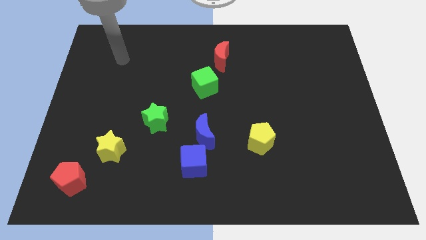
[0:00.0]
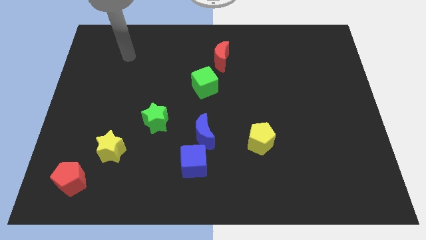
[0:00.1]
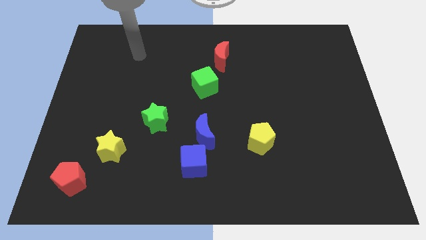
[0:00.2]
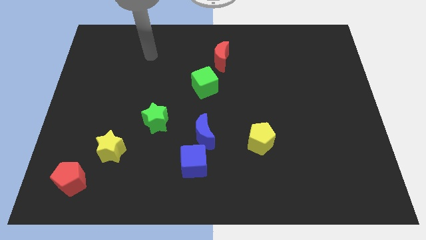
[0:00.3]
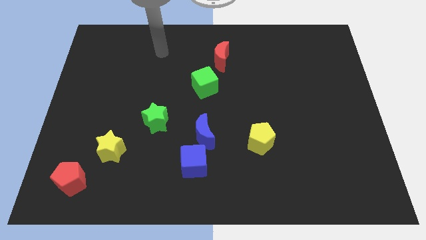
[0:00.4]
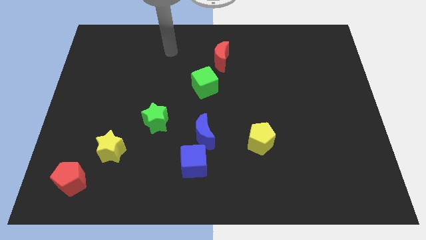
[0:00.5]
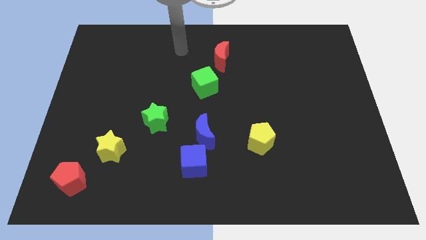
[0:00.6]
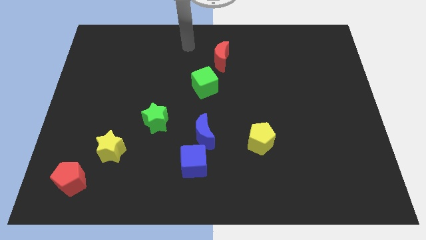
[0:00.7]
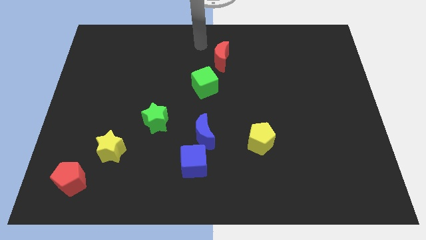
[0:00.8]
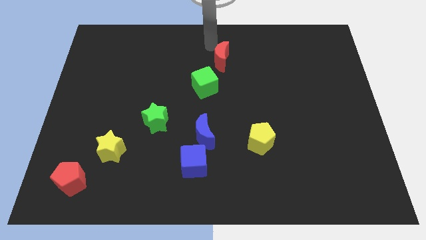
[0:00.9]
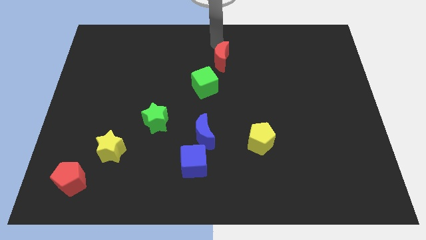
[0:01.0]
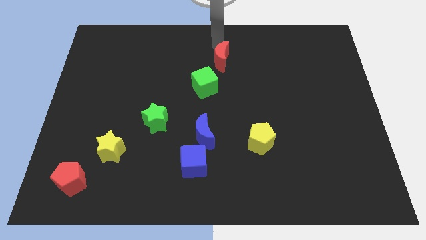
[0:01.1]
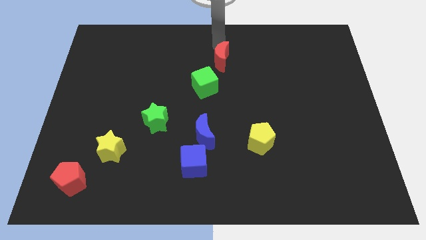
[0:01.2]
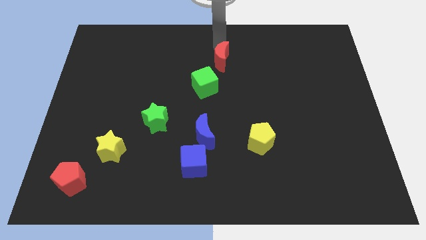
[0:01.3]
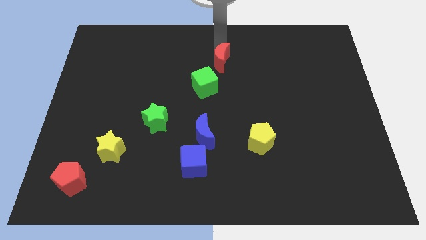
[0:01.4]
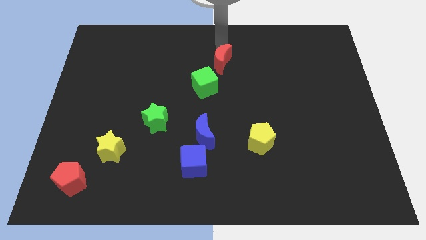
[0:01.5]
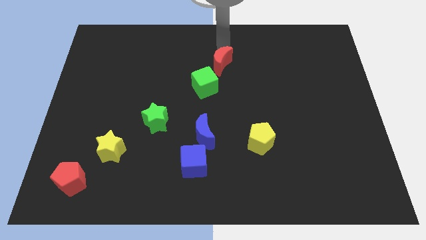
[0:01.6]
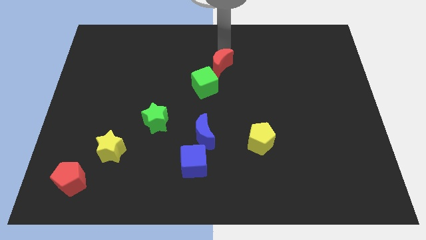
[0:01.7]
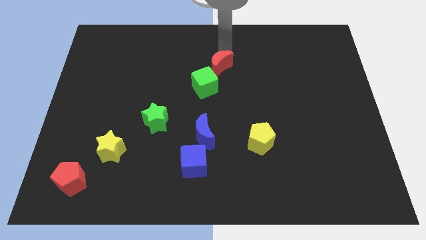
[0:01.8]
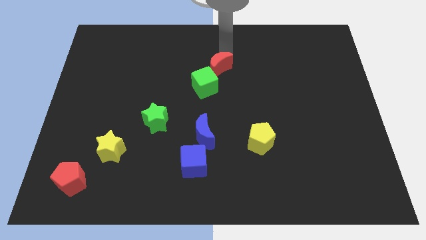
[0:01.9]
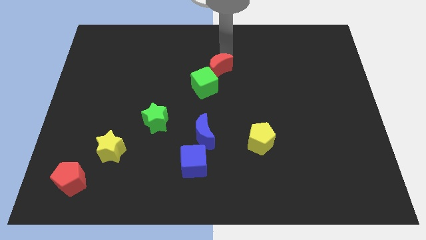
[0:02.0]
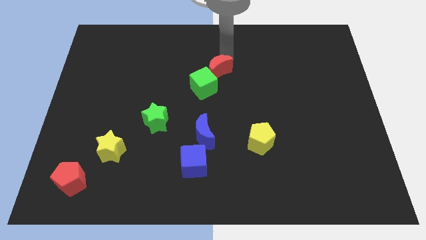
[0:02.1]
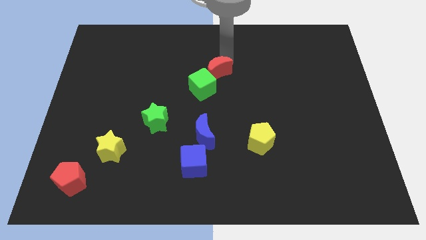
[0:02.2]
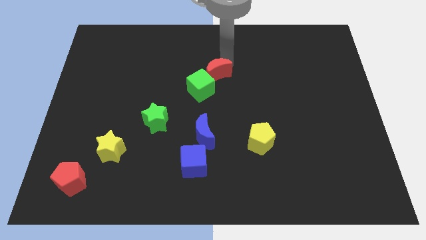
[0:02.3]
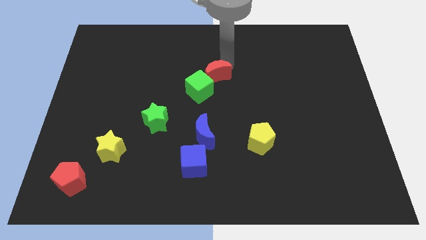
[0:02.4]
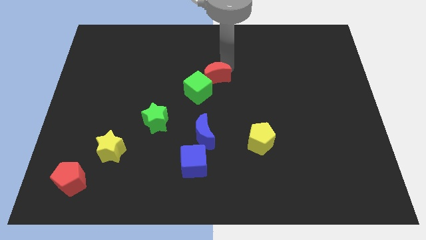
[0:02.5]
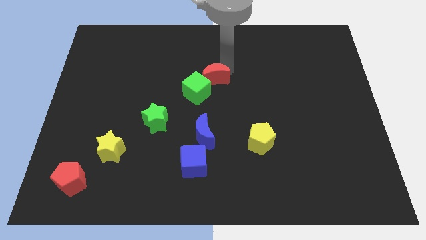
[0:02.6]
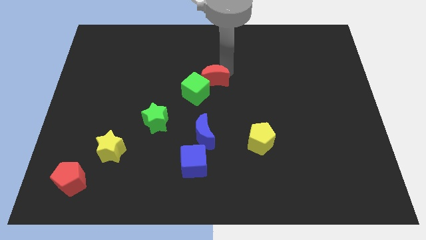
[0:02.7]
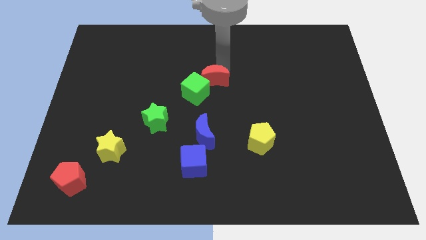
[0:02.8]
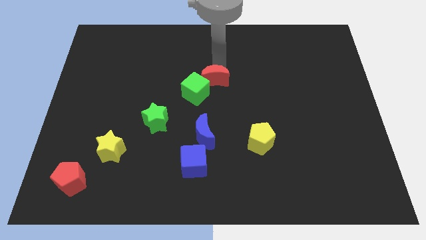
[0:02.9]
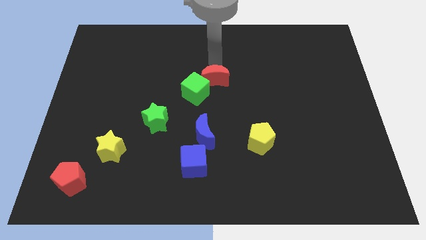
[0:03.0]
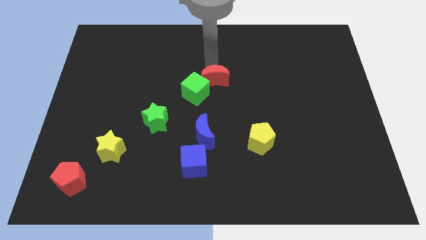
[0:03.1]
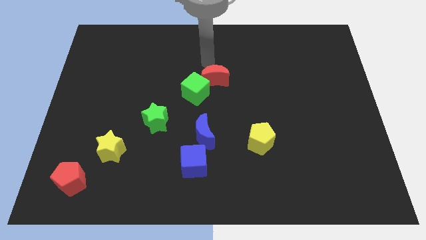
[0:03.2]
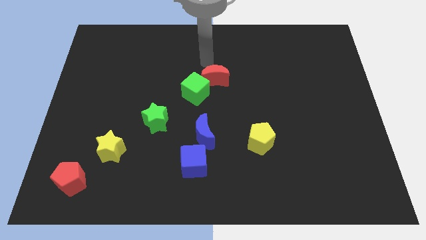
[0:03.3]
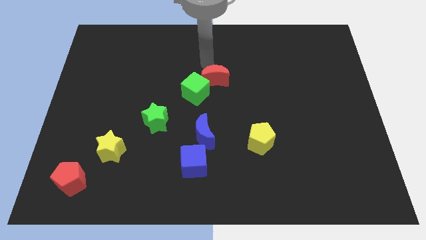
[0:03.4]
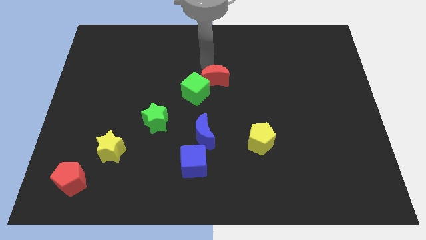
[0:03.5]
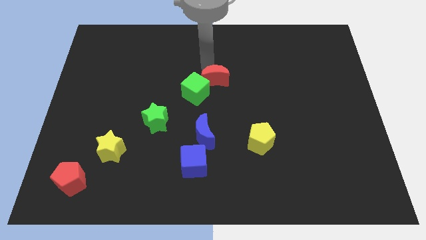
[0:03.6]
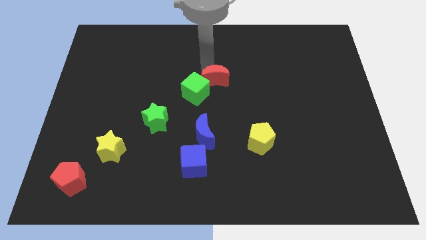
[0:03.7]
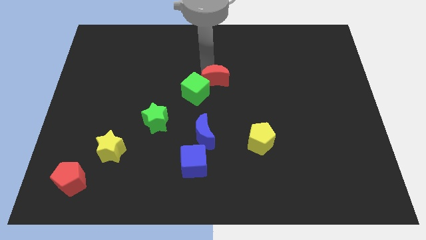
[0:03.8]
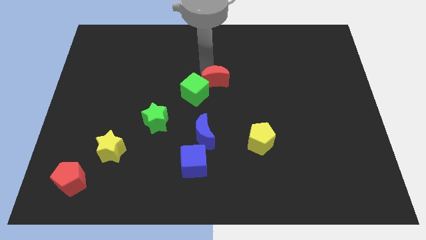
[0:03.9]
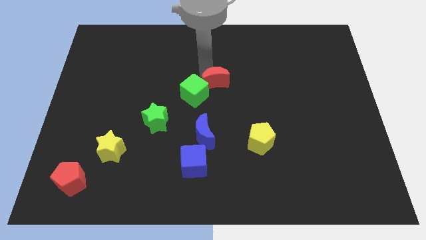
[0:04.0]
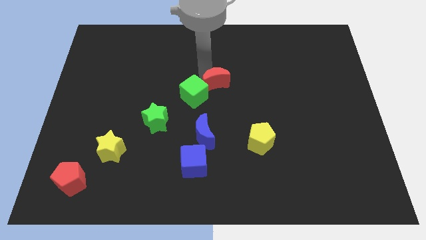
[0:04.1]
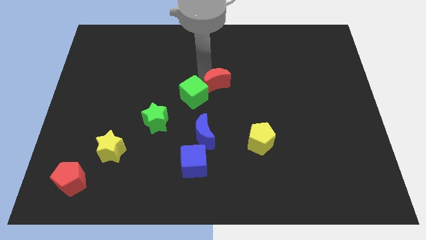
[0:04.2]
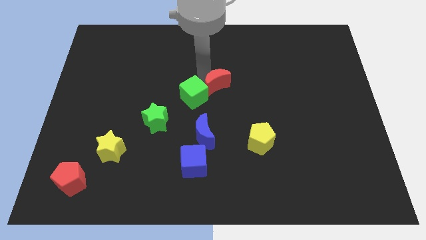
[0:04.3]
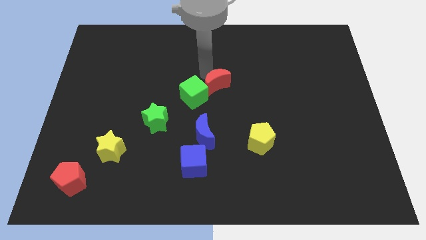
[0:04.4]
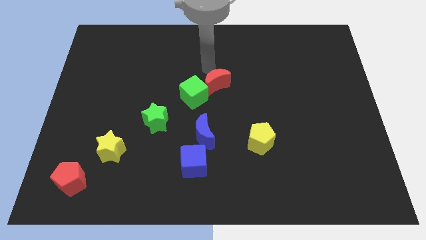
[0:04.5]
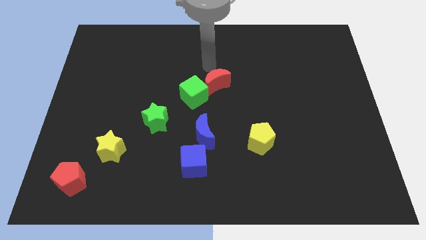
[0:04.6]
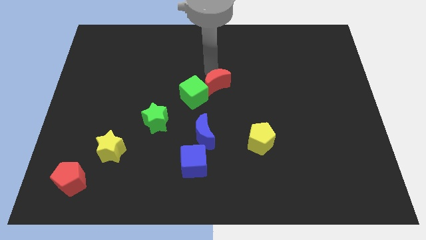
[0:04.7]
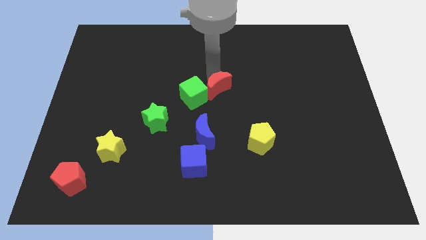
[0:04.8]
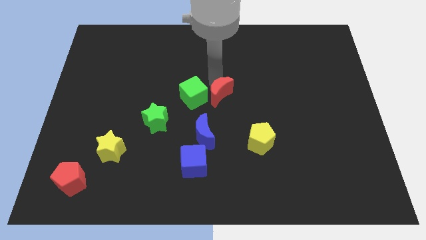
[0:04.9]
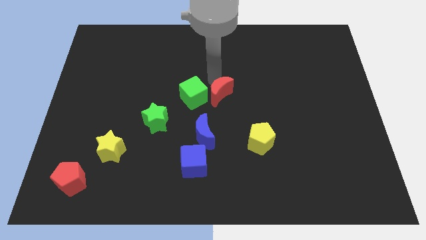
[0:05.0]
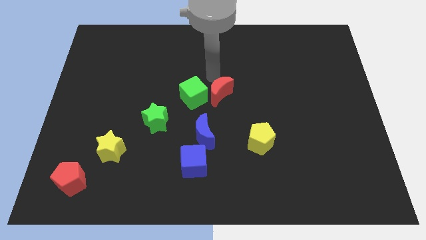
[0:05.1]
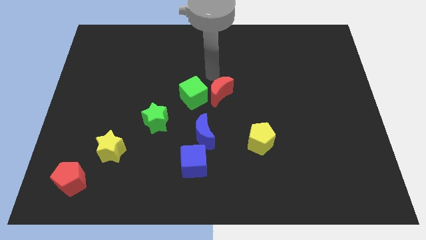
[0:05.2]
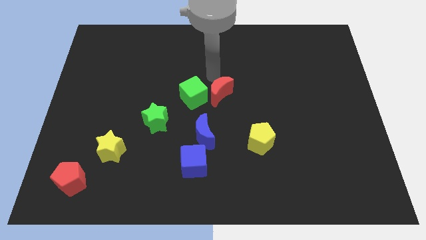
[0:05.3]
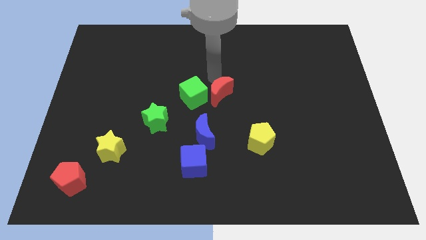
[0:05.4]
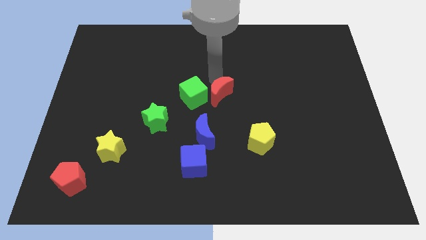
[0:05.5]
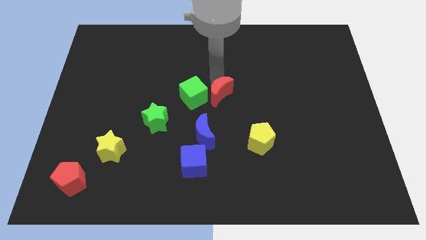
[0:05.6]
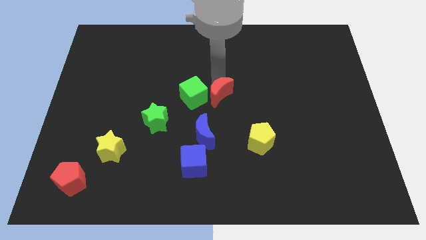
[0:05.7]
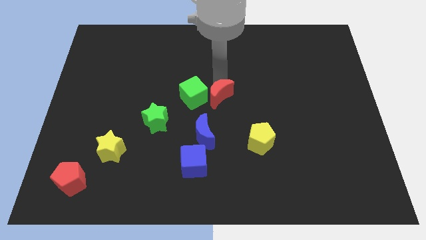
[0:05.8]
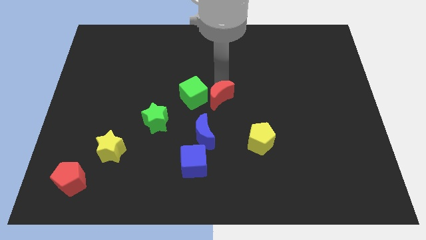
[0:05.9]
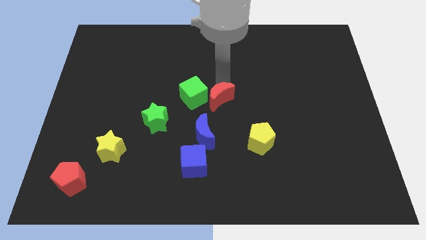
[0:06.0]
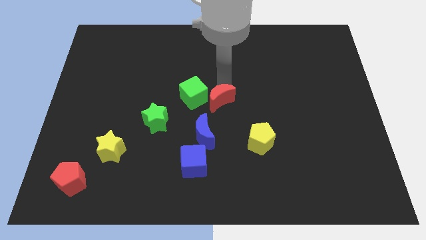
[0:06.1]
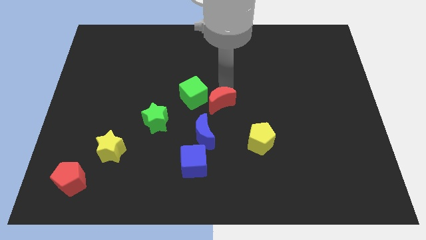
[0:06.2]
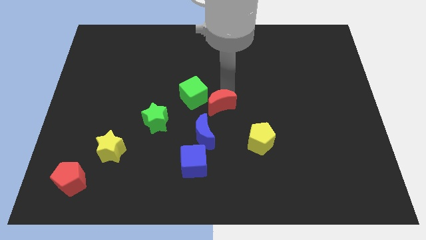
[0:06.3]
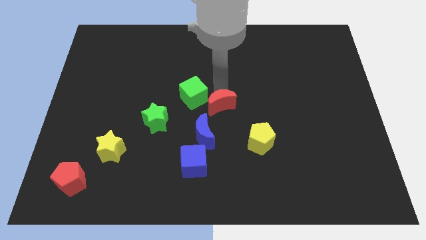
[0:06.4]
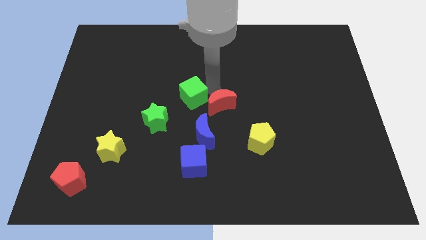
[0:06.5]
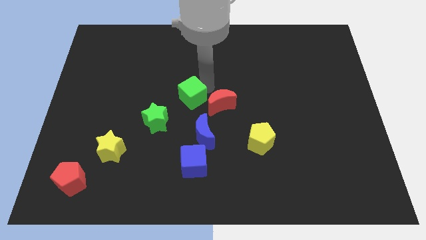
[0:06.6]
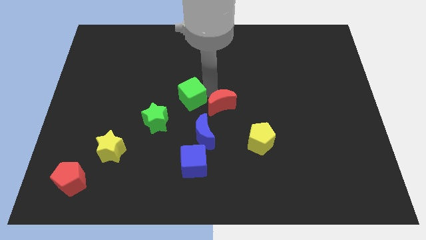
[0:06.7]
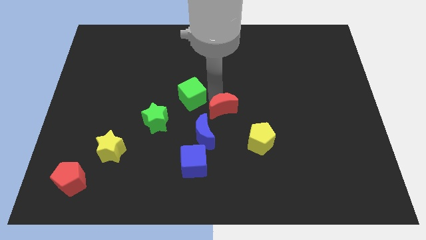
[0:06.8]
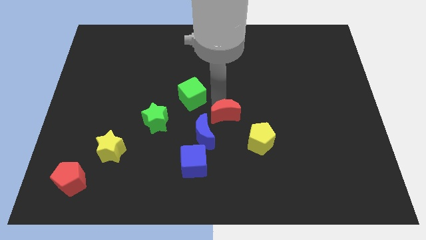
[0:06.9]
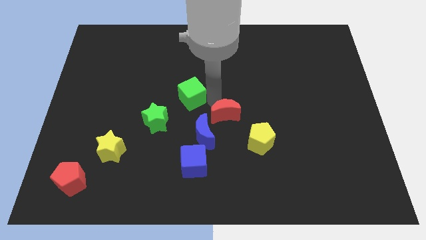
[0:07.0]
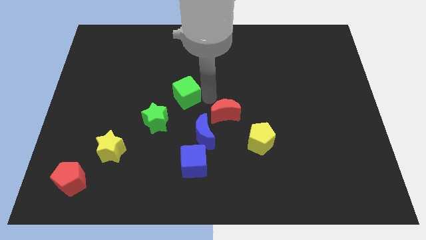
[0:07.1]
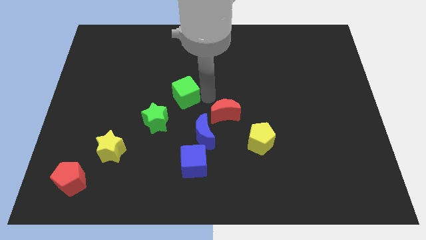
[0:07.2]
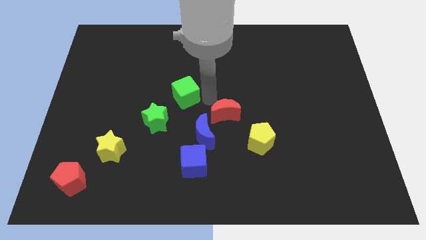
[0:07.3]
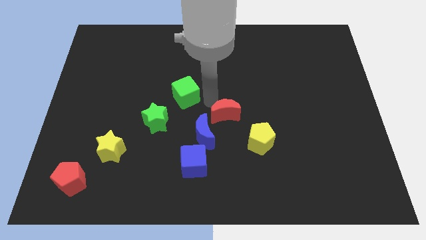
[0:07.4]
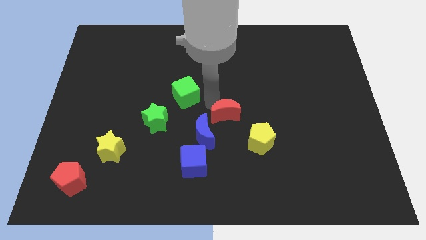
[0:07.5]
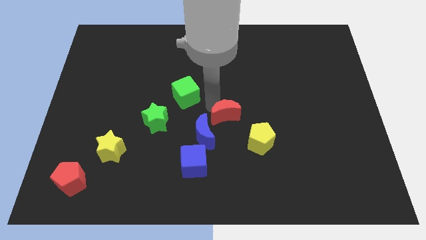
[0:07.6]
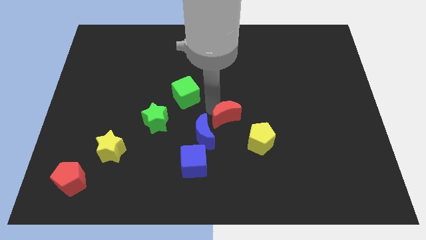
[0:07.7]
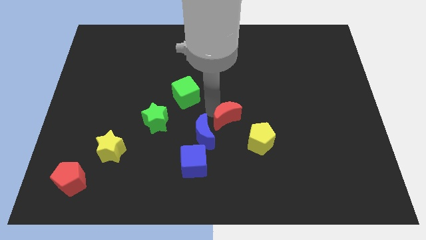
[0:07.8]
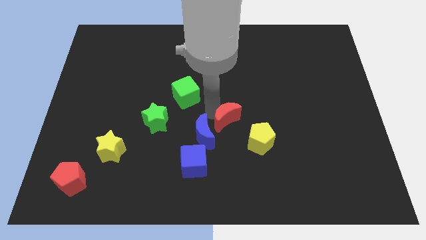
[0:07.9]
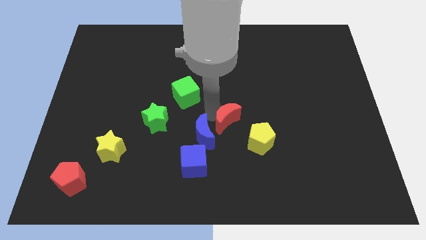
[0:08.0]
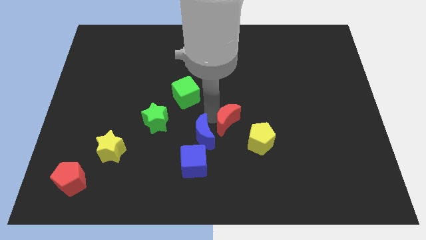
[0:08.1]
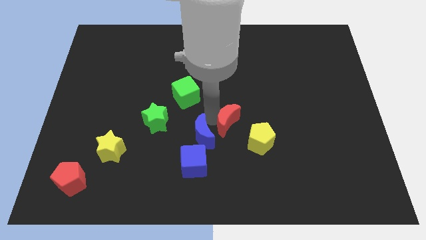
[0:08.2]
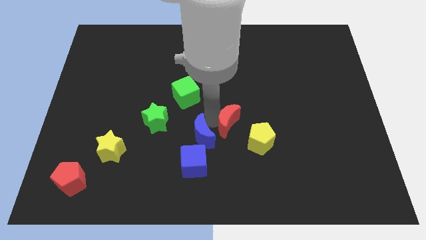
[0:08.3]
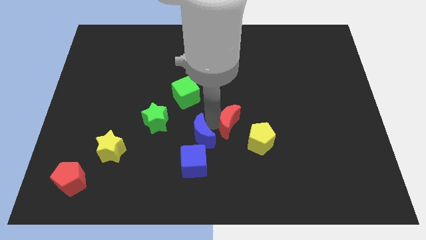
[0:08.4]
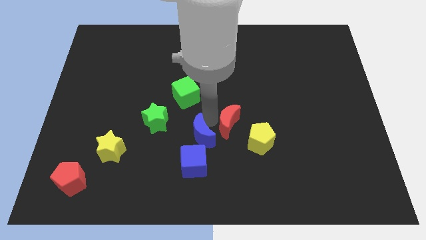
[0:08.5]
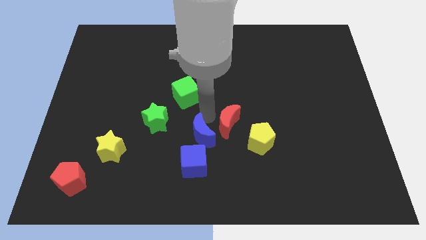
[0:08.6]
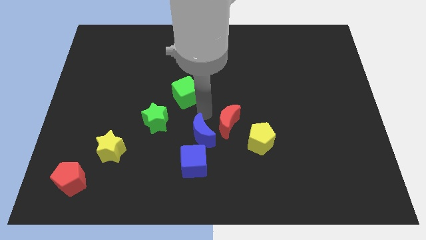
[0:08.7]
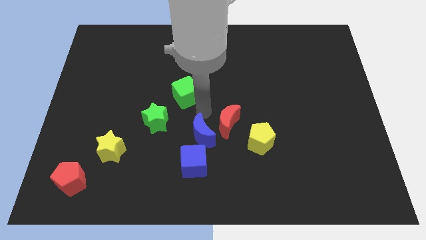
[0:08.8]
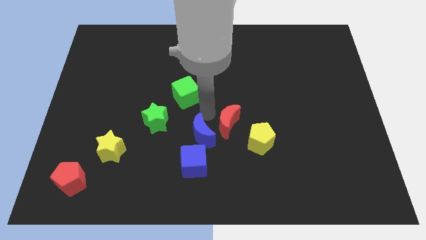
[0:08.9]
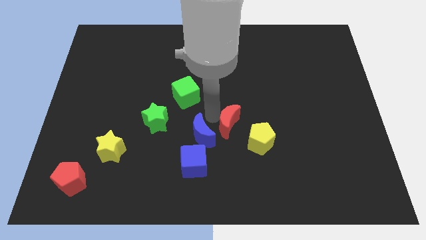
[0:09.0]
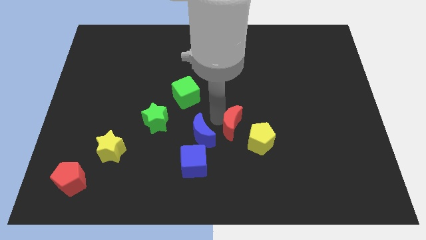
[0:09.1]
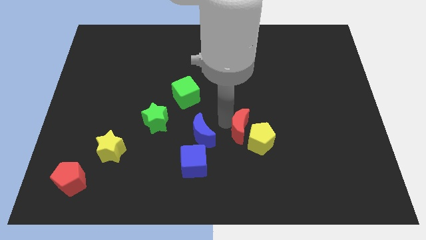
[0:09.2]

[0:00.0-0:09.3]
put the red moon next to the yellow pentagon
